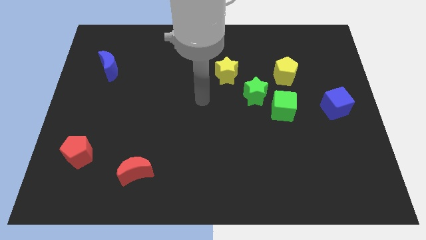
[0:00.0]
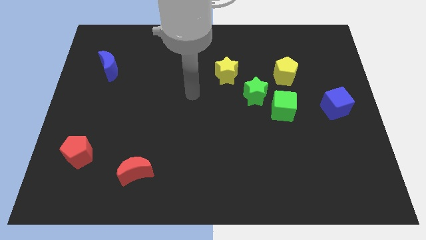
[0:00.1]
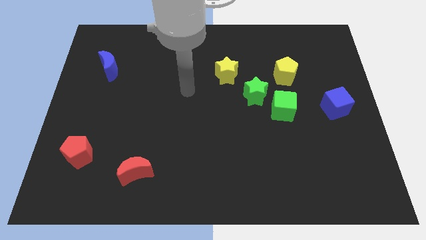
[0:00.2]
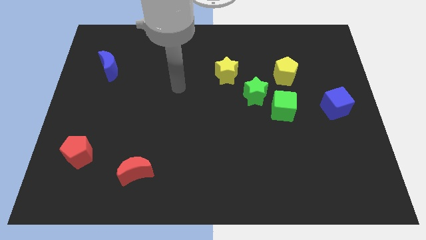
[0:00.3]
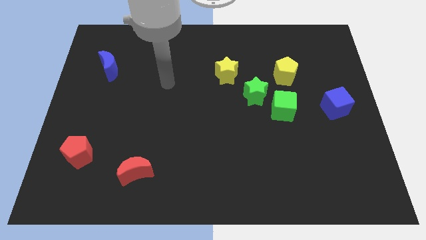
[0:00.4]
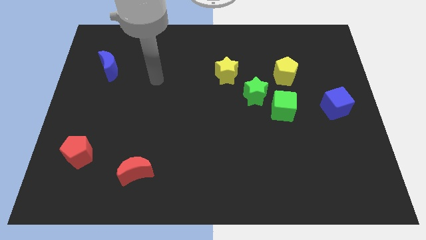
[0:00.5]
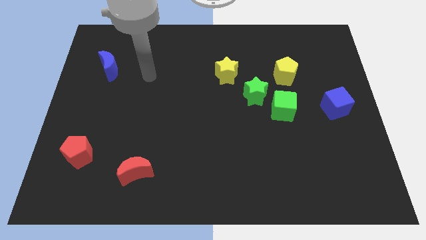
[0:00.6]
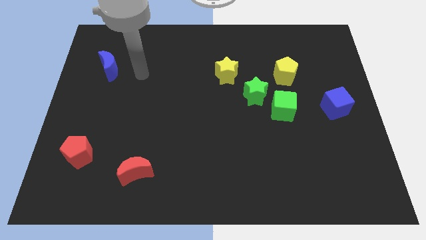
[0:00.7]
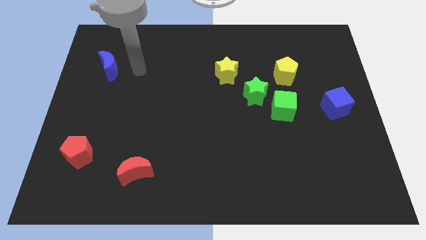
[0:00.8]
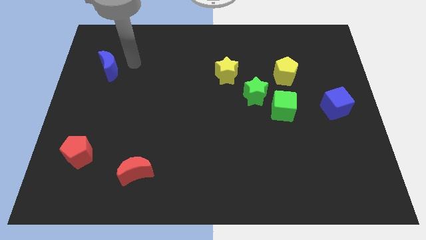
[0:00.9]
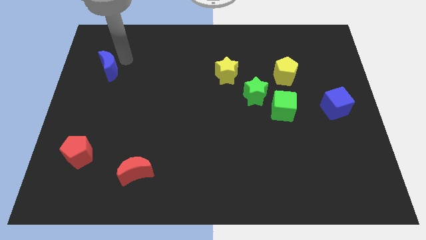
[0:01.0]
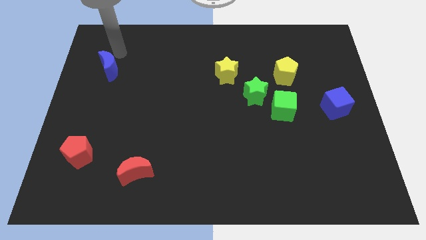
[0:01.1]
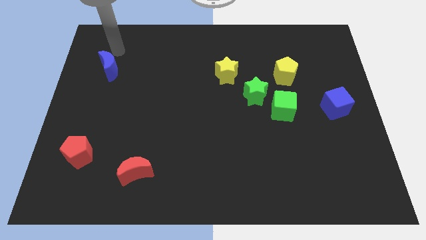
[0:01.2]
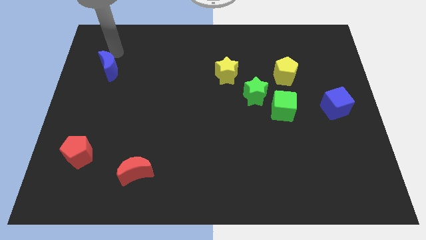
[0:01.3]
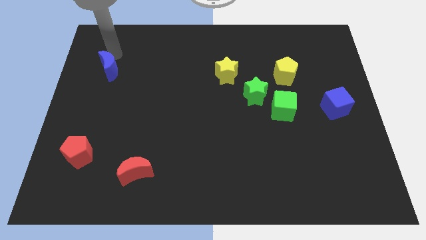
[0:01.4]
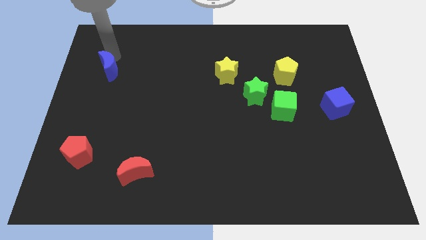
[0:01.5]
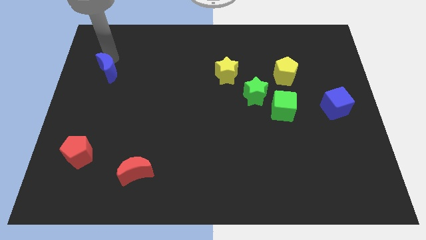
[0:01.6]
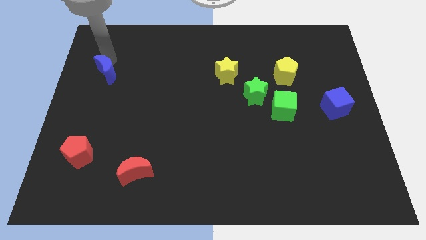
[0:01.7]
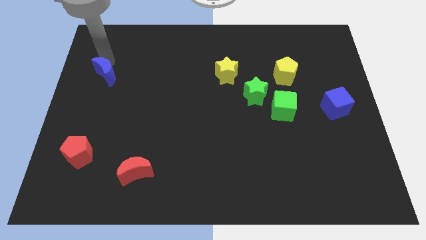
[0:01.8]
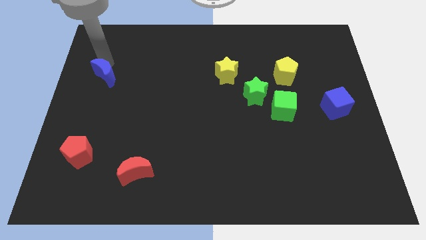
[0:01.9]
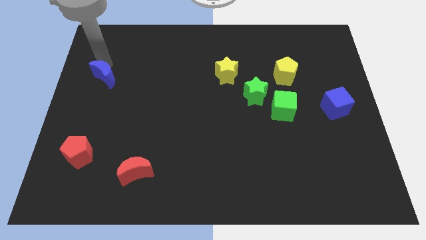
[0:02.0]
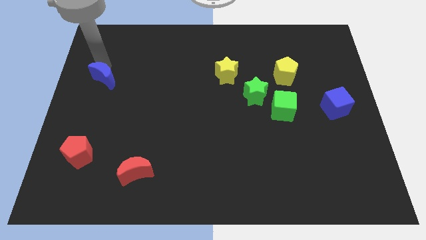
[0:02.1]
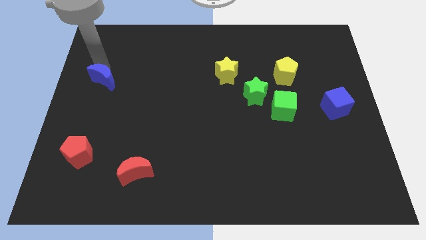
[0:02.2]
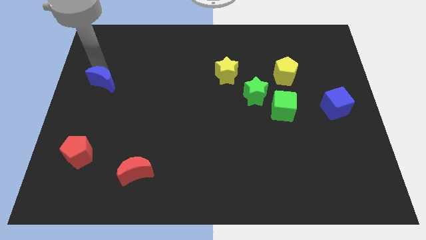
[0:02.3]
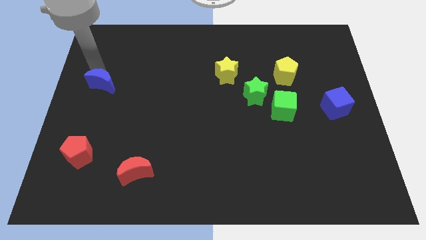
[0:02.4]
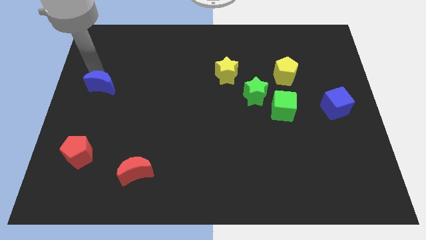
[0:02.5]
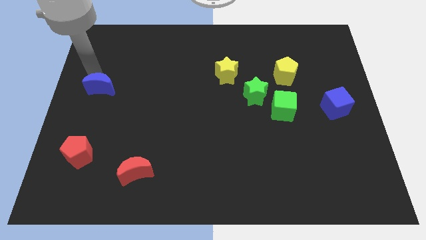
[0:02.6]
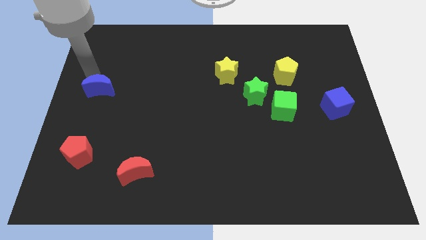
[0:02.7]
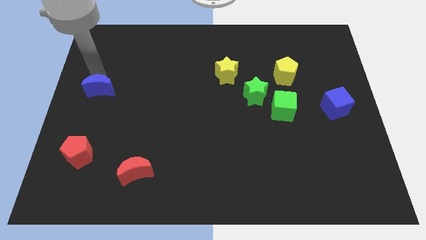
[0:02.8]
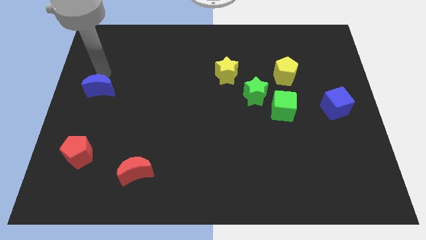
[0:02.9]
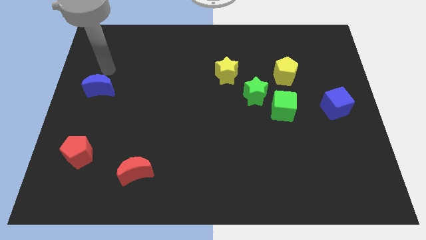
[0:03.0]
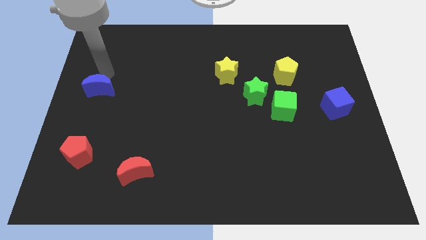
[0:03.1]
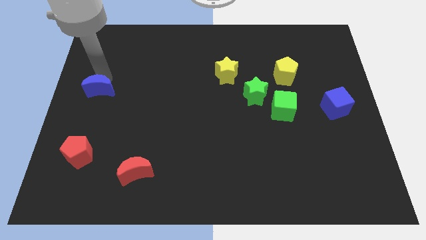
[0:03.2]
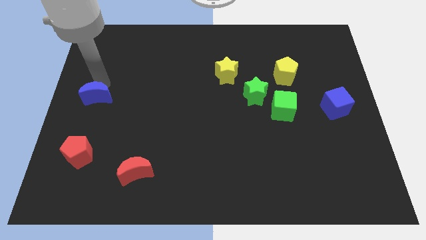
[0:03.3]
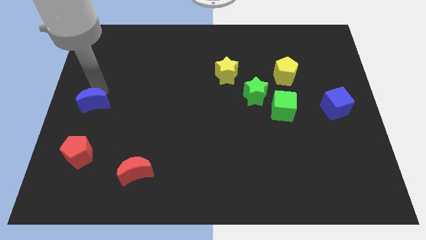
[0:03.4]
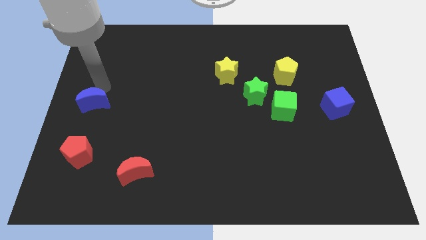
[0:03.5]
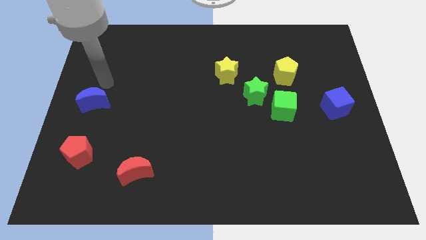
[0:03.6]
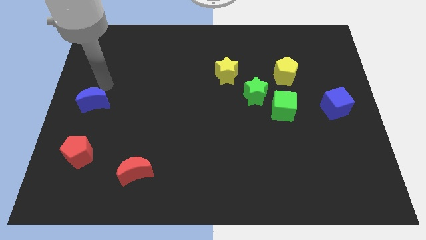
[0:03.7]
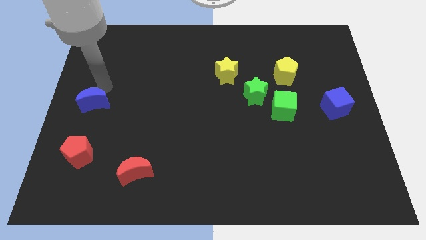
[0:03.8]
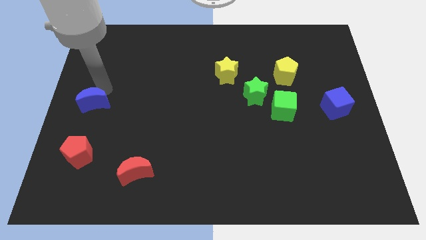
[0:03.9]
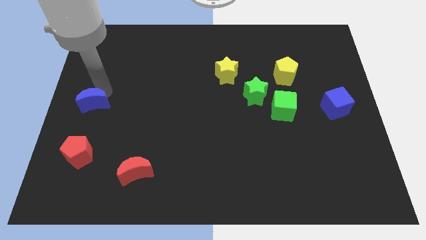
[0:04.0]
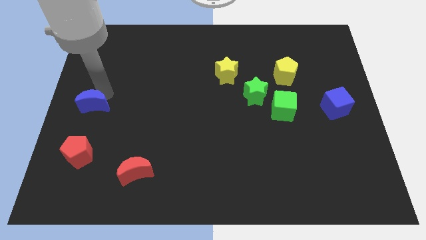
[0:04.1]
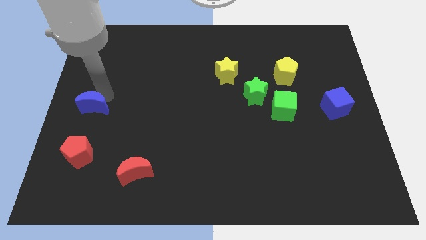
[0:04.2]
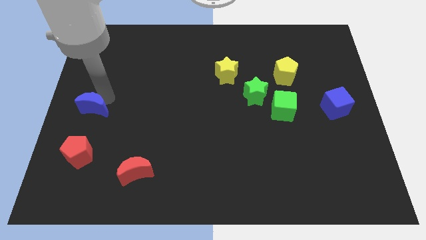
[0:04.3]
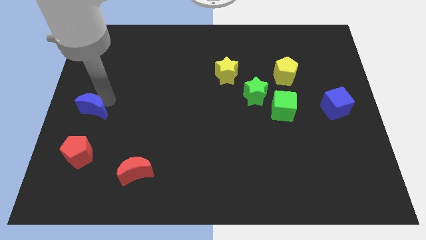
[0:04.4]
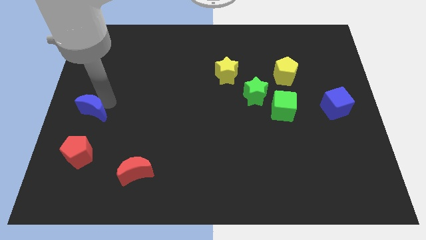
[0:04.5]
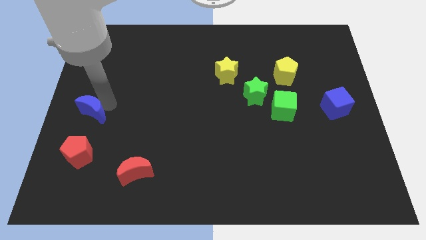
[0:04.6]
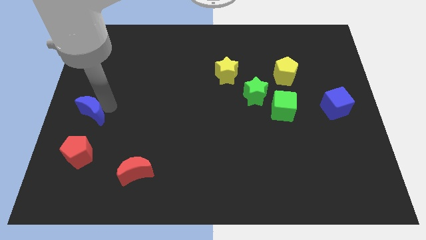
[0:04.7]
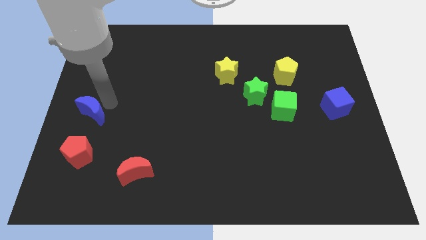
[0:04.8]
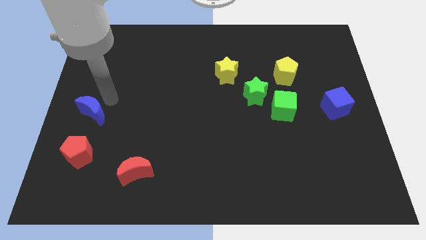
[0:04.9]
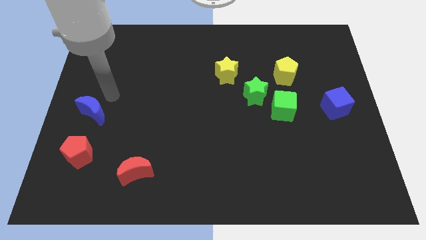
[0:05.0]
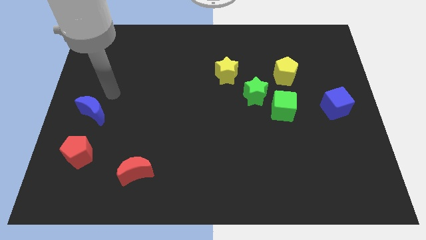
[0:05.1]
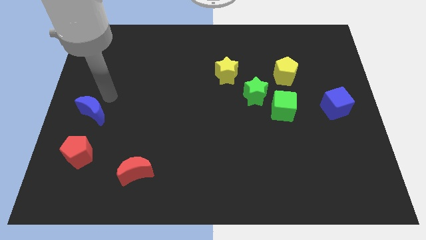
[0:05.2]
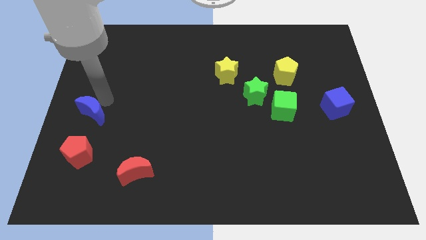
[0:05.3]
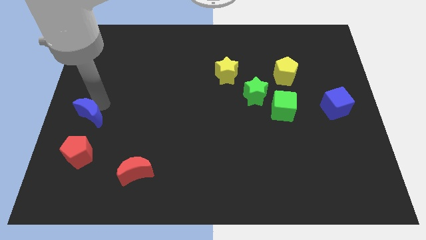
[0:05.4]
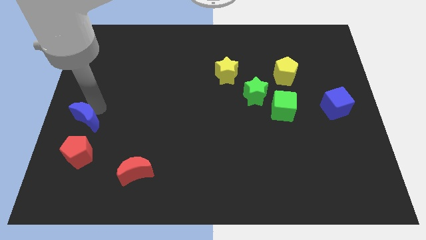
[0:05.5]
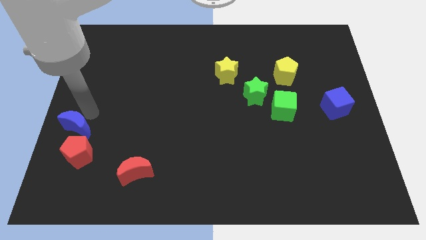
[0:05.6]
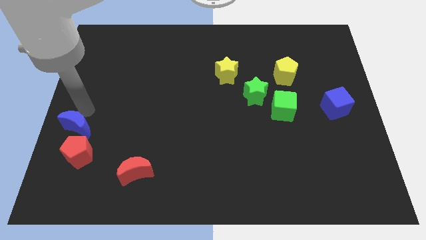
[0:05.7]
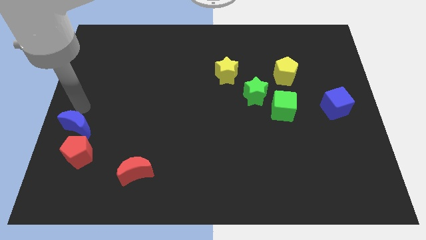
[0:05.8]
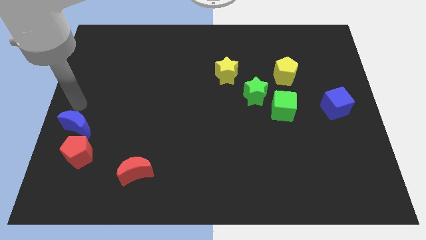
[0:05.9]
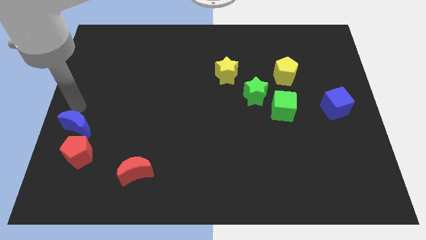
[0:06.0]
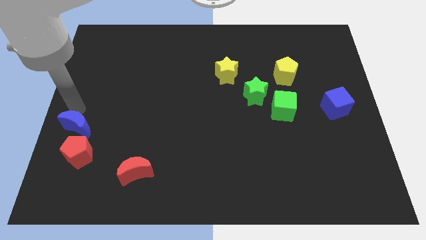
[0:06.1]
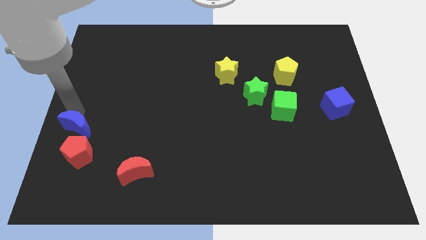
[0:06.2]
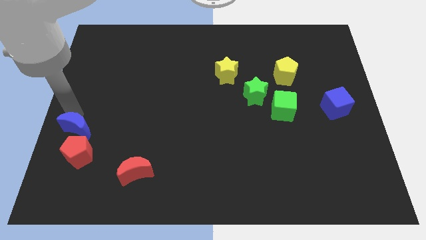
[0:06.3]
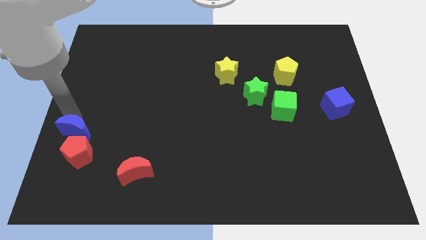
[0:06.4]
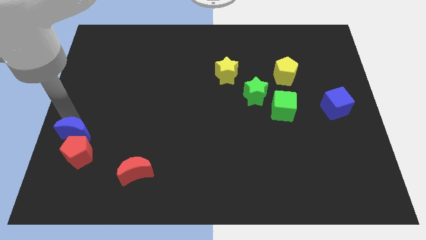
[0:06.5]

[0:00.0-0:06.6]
move the blue moon close to the red pentagon

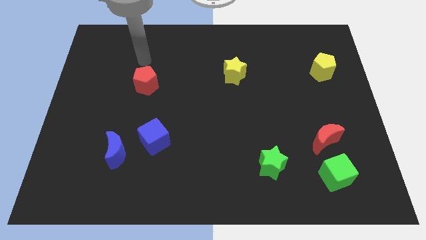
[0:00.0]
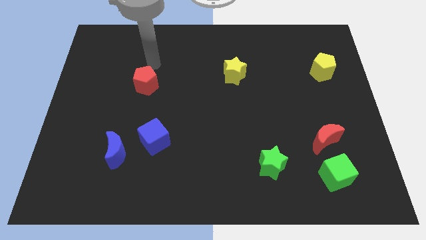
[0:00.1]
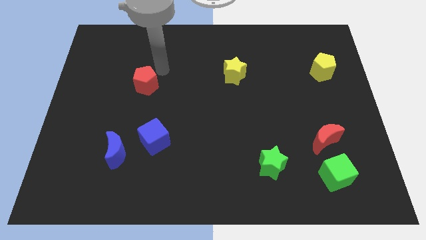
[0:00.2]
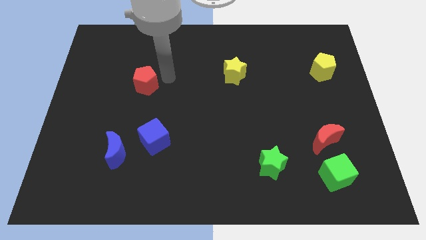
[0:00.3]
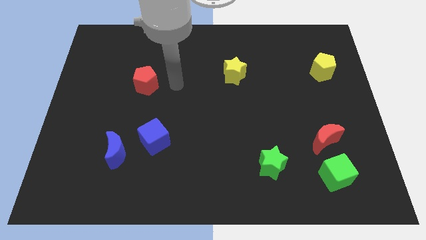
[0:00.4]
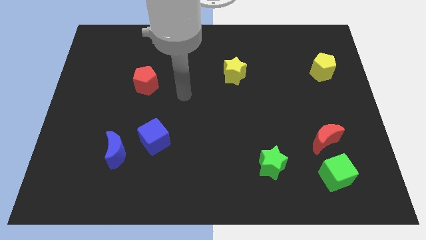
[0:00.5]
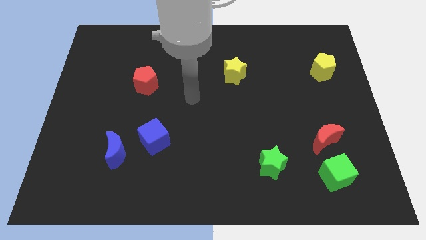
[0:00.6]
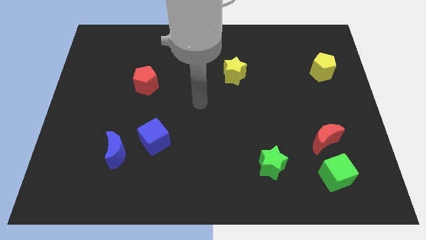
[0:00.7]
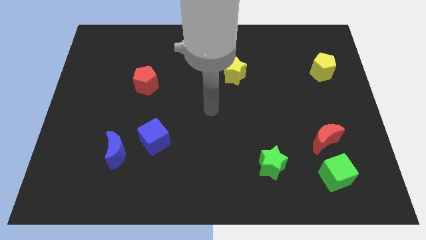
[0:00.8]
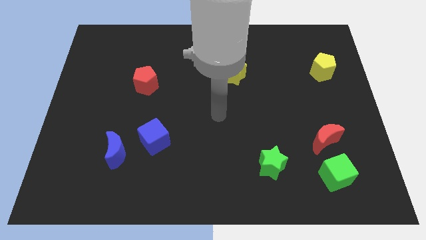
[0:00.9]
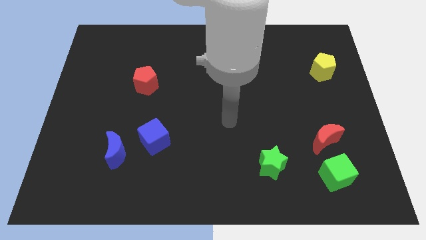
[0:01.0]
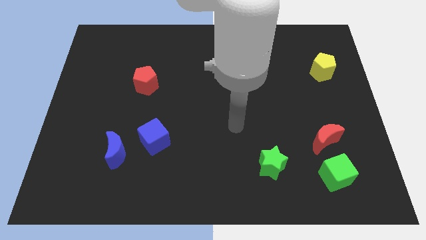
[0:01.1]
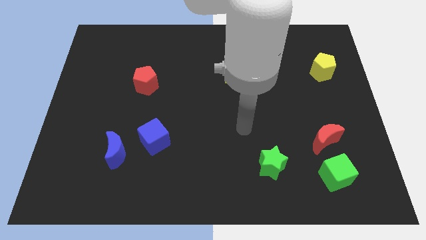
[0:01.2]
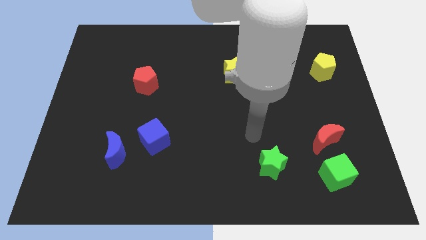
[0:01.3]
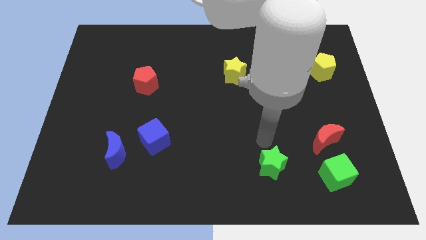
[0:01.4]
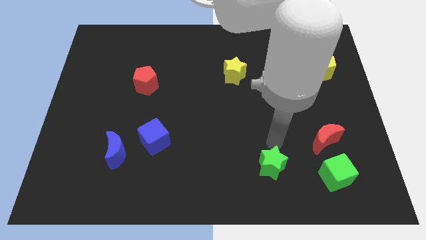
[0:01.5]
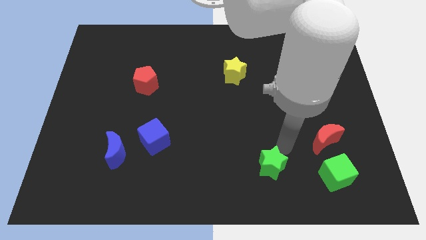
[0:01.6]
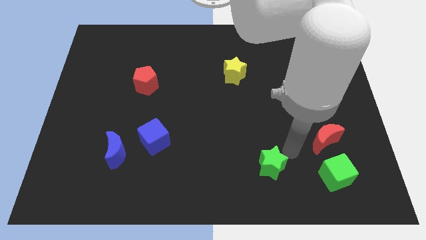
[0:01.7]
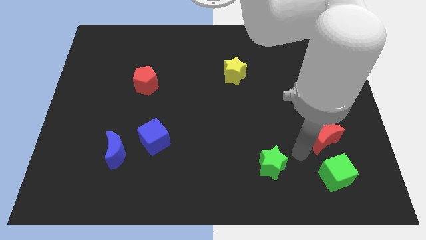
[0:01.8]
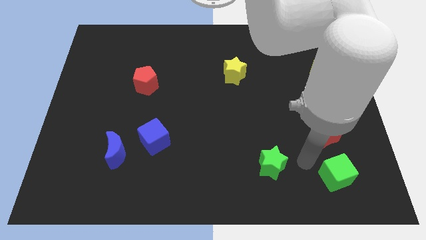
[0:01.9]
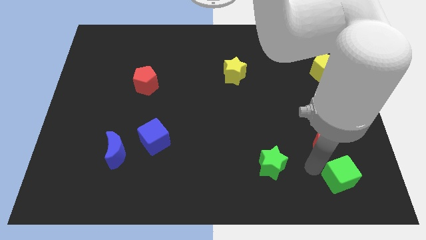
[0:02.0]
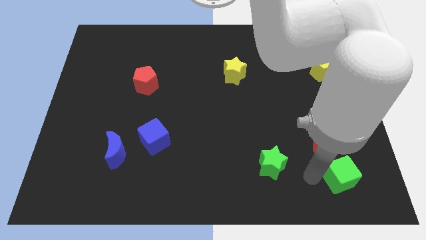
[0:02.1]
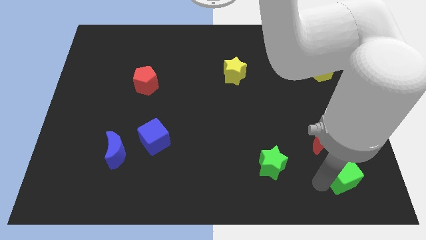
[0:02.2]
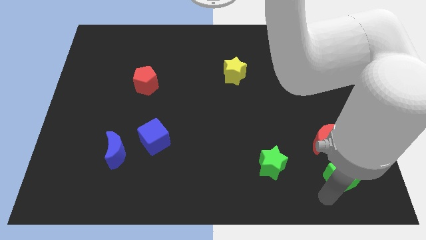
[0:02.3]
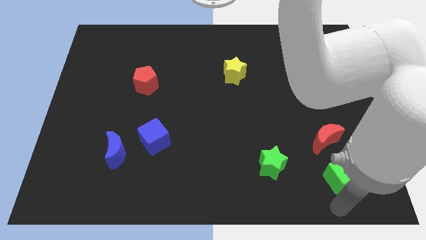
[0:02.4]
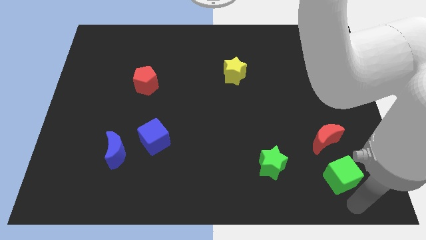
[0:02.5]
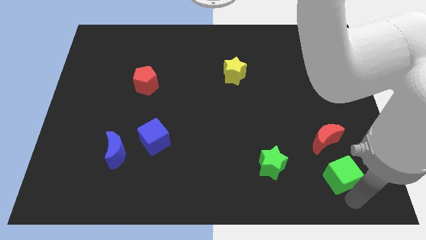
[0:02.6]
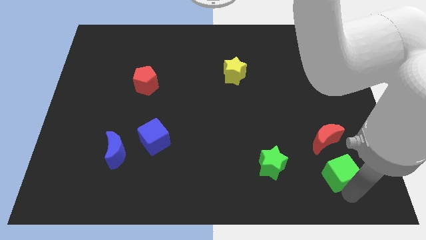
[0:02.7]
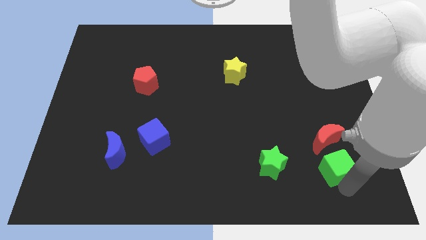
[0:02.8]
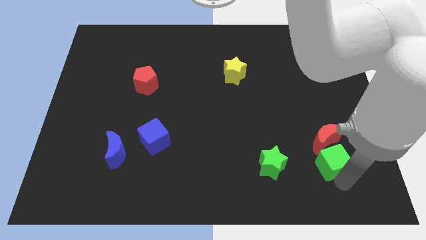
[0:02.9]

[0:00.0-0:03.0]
move the green cube next to the red moon
